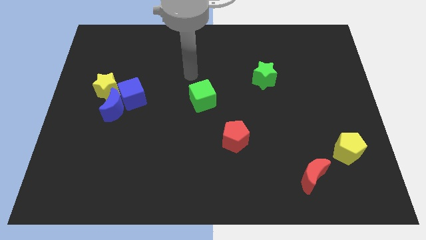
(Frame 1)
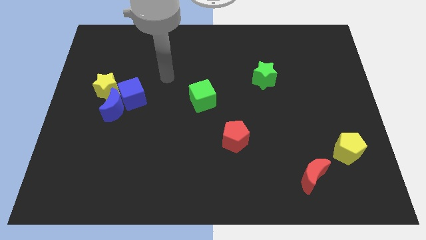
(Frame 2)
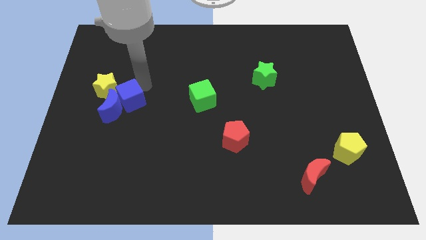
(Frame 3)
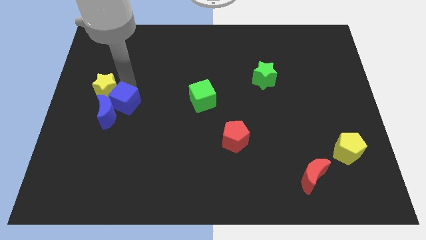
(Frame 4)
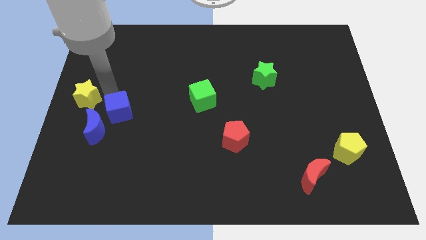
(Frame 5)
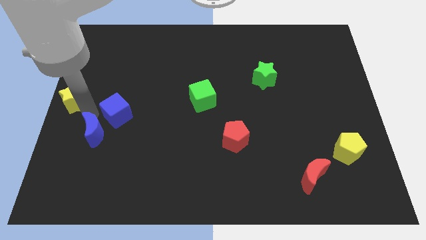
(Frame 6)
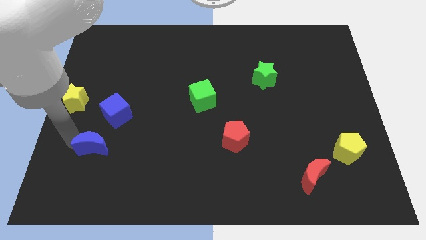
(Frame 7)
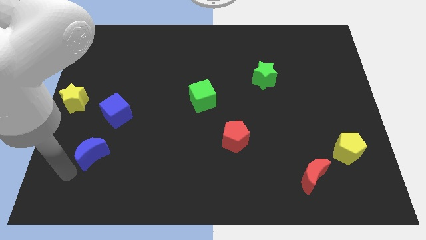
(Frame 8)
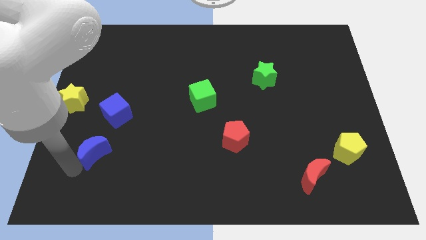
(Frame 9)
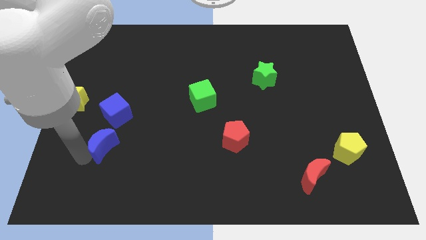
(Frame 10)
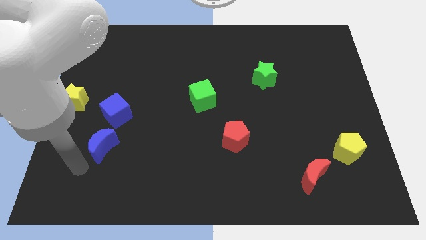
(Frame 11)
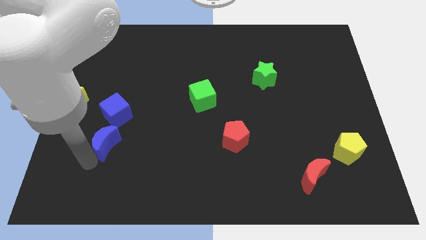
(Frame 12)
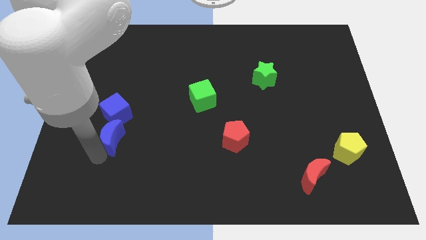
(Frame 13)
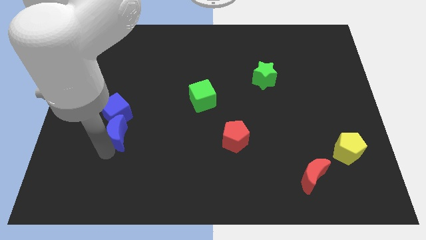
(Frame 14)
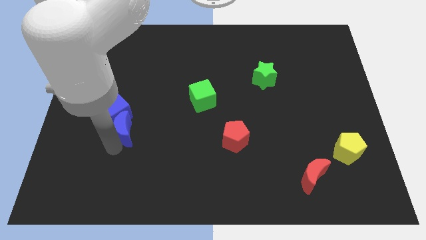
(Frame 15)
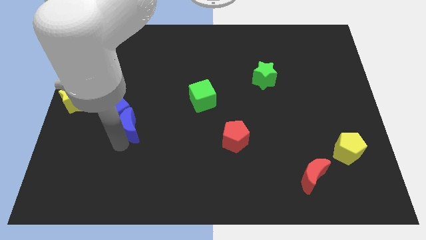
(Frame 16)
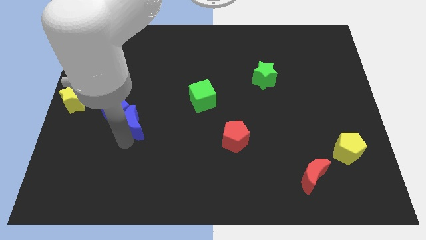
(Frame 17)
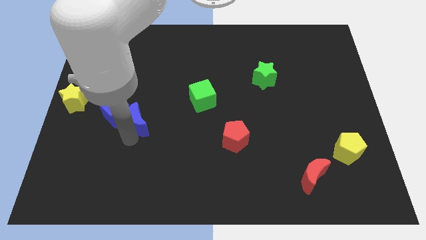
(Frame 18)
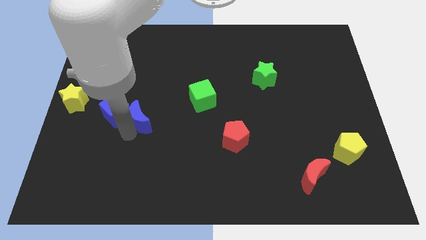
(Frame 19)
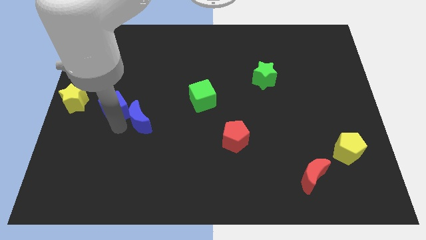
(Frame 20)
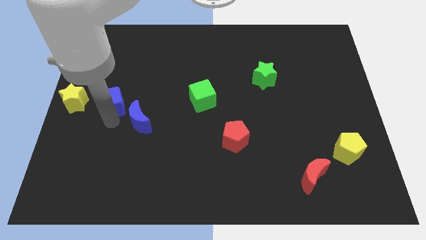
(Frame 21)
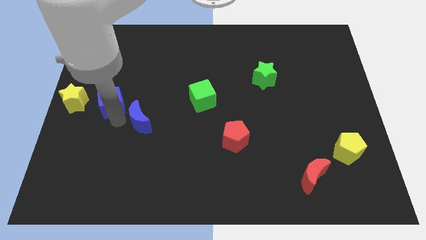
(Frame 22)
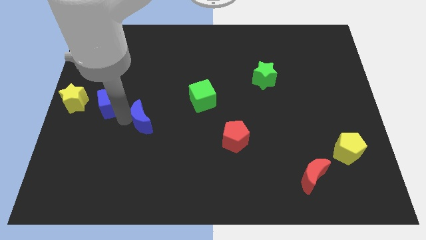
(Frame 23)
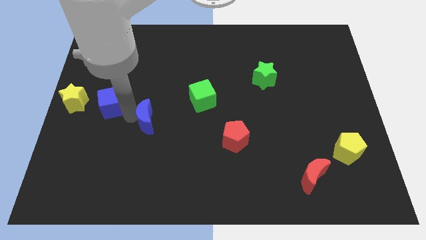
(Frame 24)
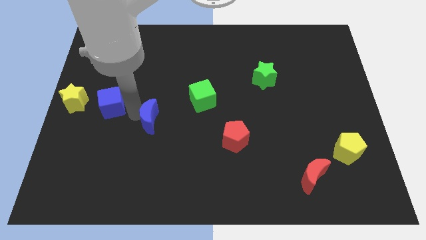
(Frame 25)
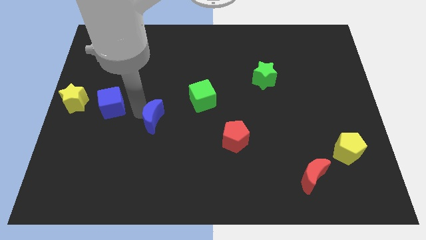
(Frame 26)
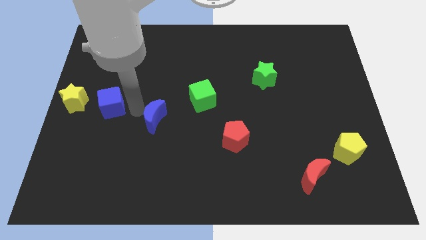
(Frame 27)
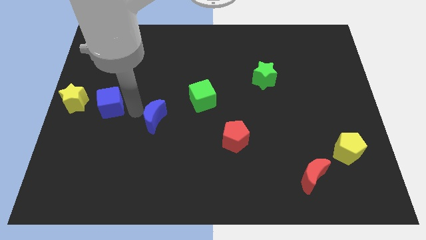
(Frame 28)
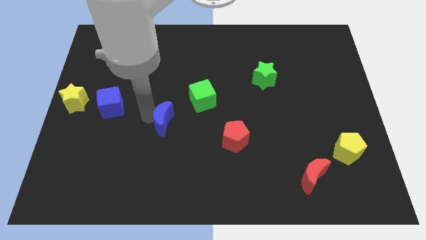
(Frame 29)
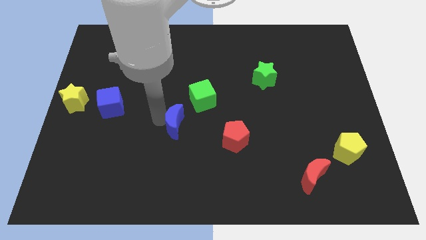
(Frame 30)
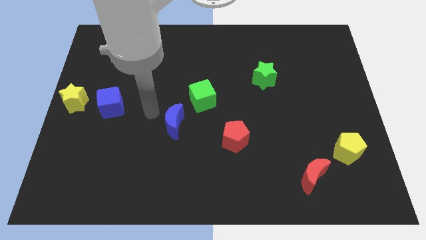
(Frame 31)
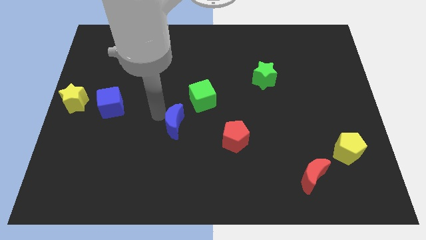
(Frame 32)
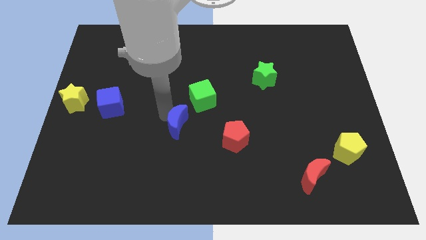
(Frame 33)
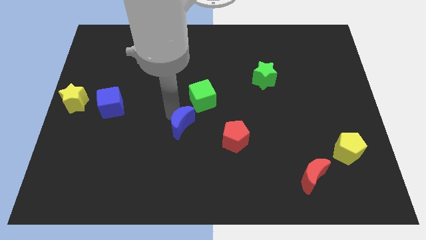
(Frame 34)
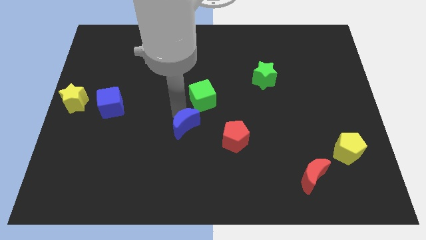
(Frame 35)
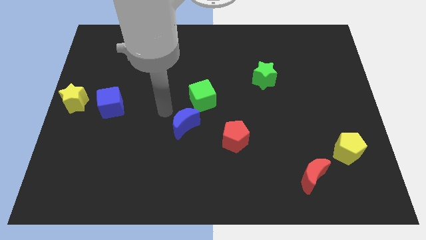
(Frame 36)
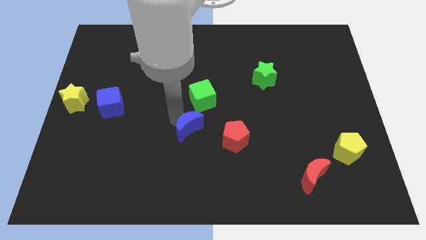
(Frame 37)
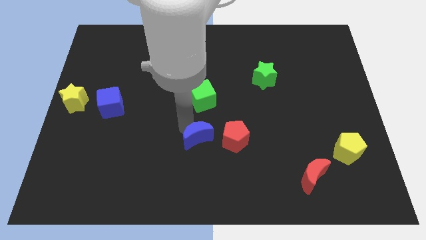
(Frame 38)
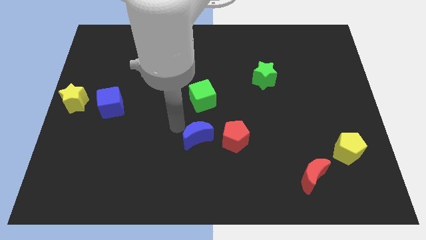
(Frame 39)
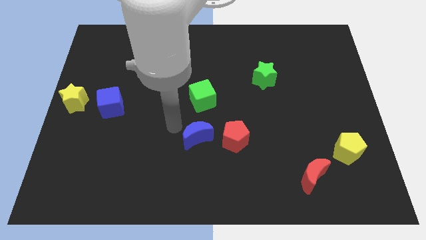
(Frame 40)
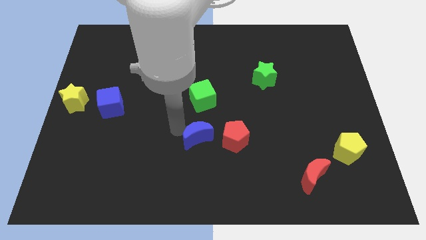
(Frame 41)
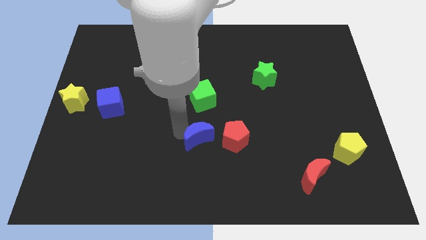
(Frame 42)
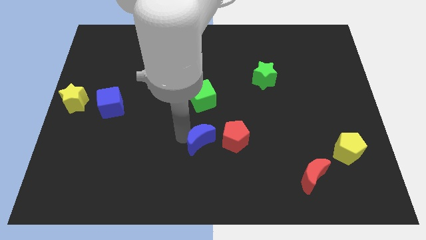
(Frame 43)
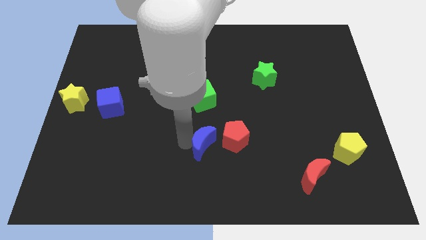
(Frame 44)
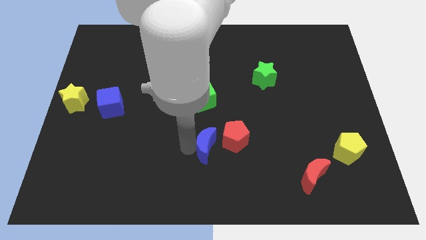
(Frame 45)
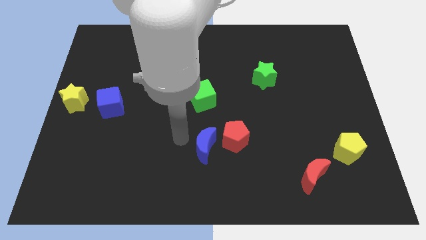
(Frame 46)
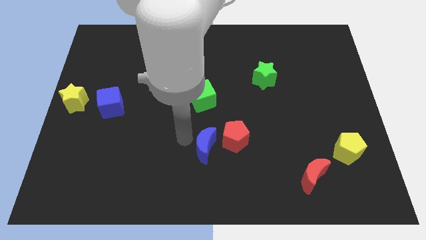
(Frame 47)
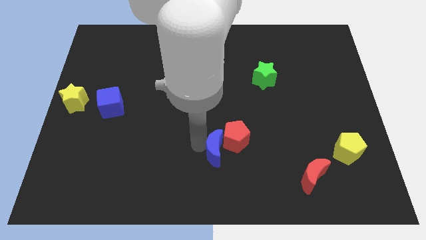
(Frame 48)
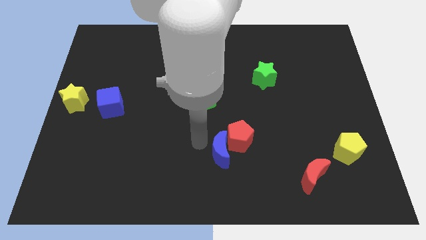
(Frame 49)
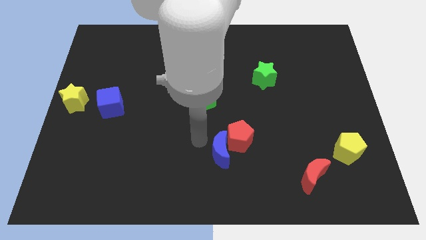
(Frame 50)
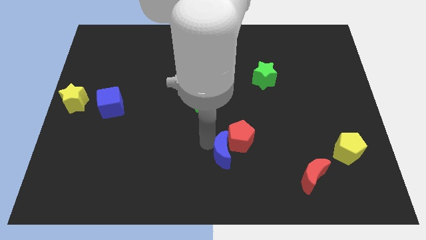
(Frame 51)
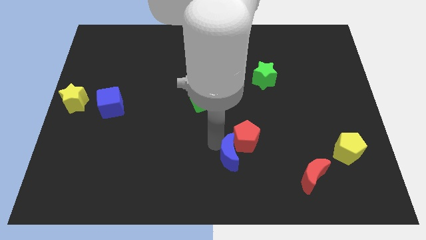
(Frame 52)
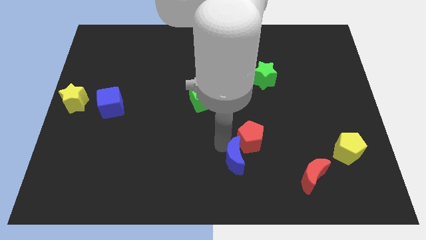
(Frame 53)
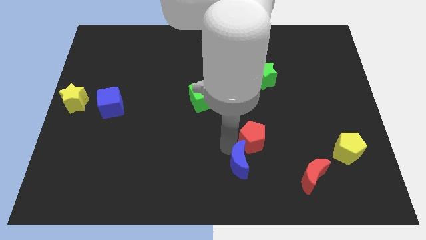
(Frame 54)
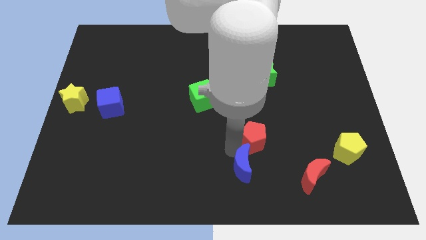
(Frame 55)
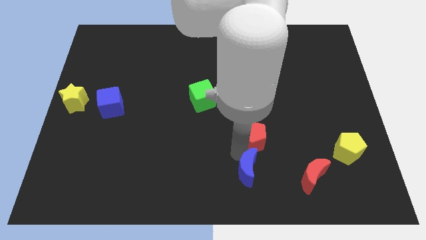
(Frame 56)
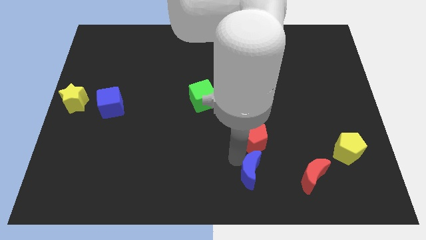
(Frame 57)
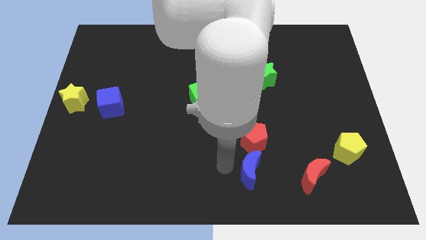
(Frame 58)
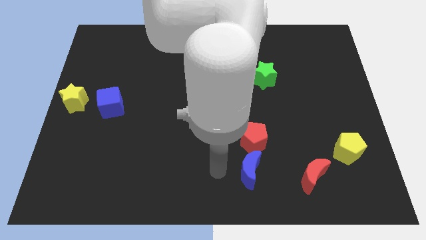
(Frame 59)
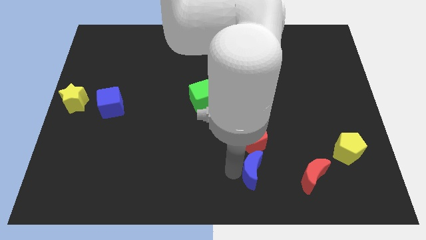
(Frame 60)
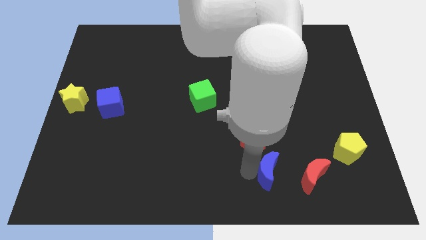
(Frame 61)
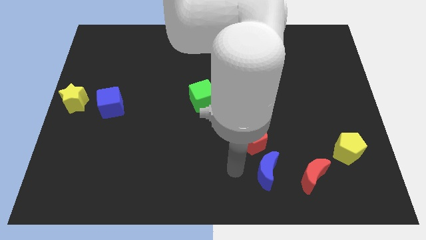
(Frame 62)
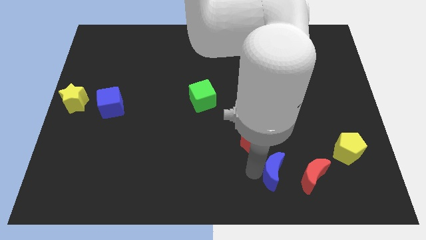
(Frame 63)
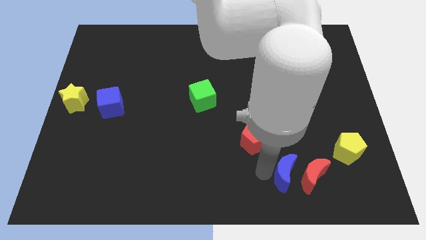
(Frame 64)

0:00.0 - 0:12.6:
slide the blue moon close to the red moon
